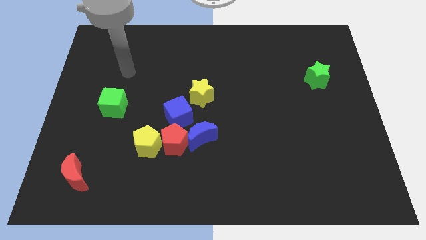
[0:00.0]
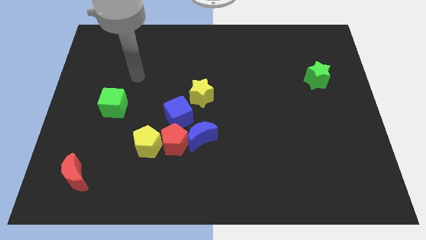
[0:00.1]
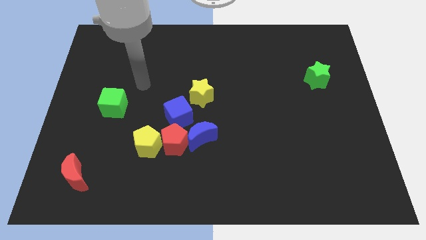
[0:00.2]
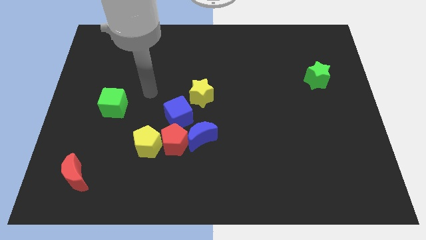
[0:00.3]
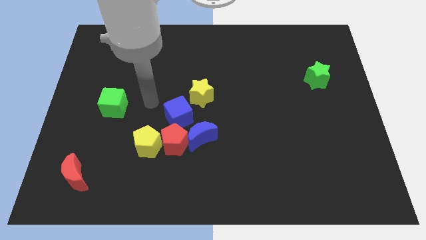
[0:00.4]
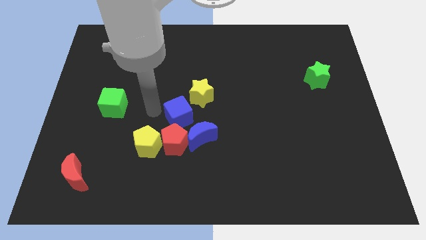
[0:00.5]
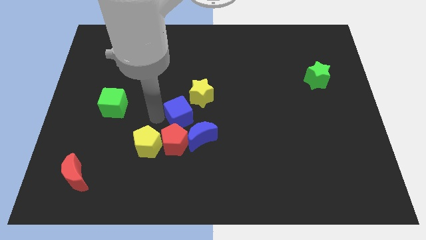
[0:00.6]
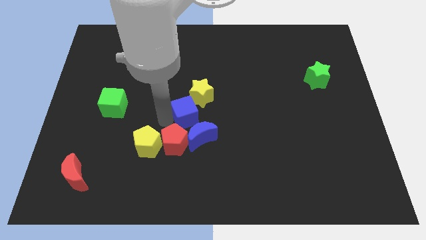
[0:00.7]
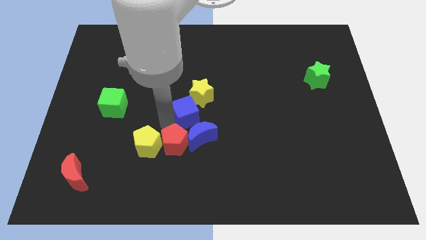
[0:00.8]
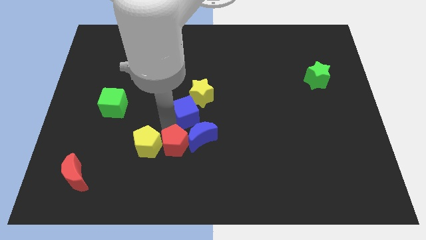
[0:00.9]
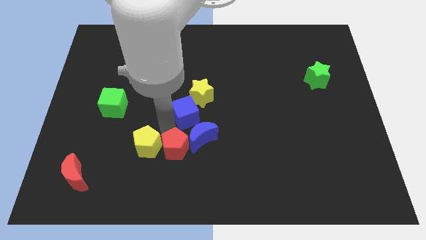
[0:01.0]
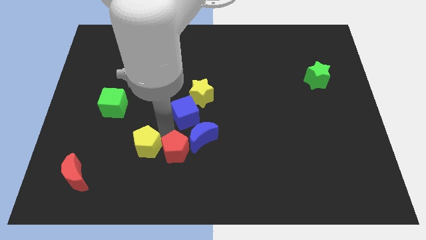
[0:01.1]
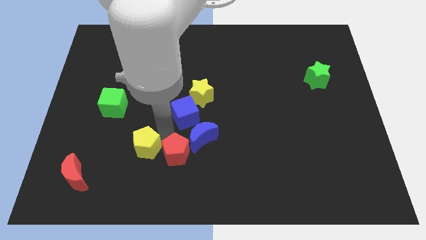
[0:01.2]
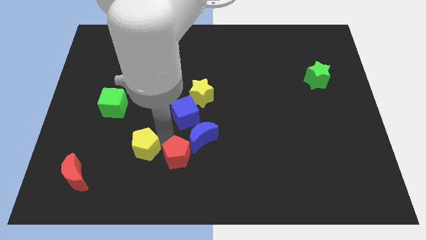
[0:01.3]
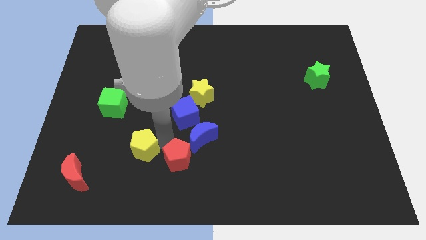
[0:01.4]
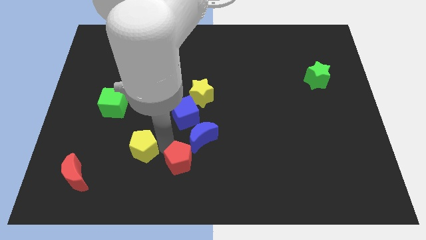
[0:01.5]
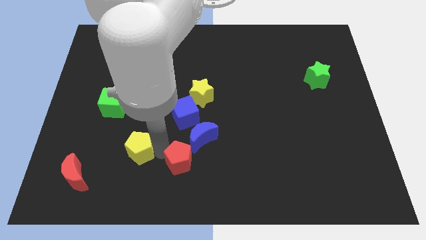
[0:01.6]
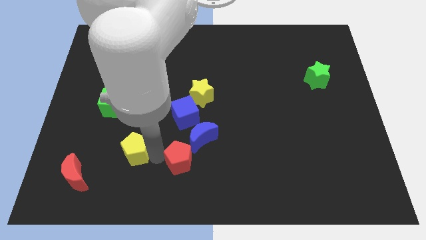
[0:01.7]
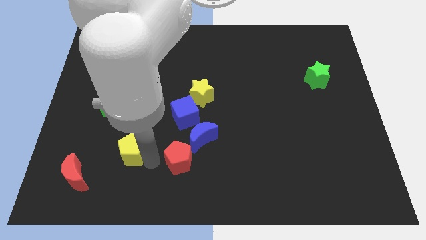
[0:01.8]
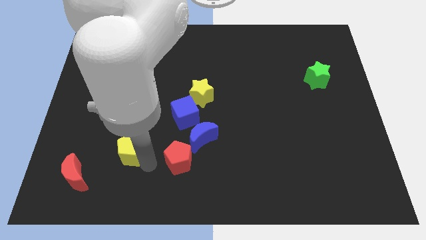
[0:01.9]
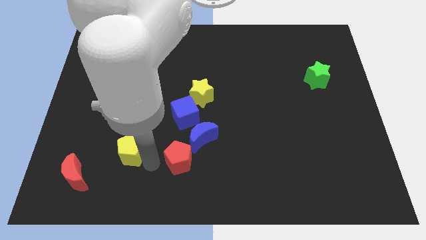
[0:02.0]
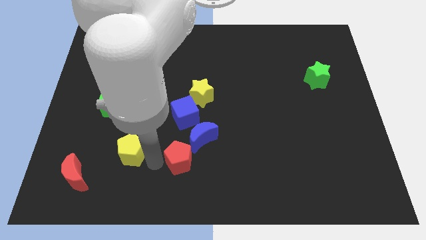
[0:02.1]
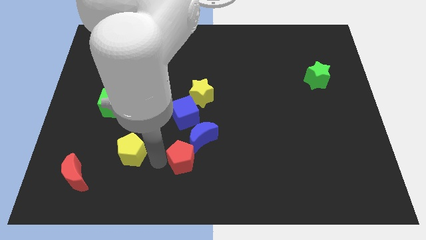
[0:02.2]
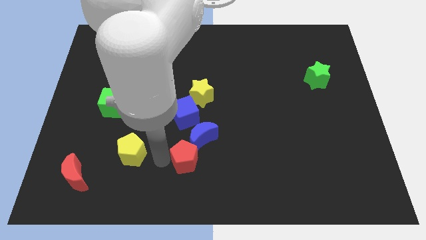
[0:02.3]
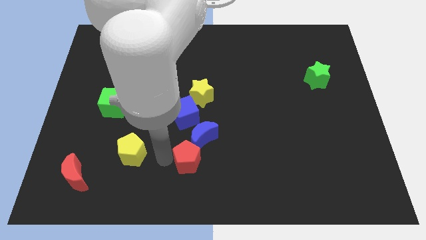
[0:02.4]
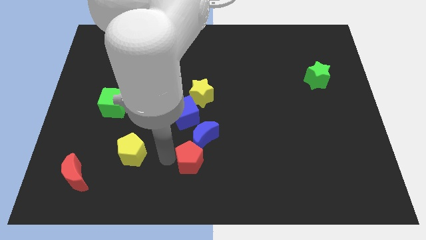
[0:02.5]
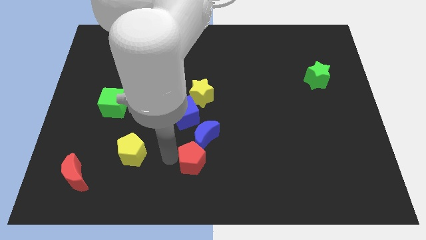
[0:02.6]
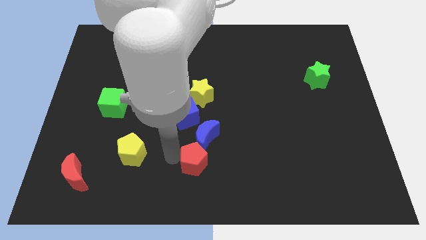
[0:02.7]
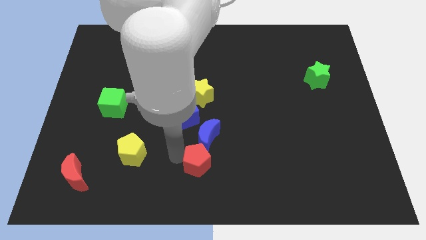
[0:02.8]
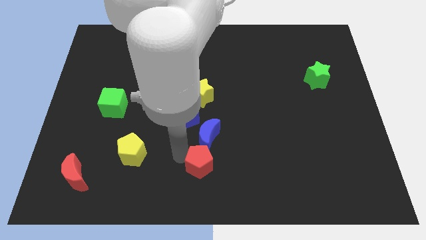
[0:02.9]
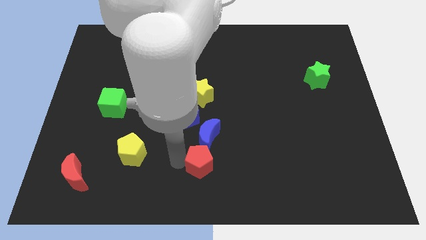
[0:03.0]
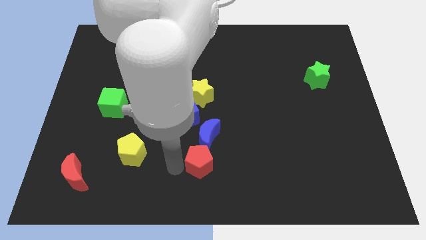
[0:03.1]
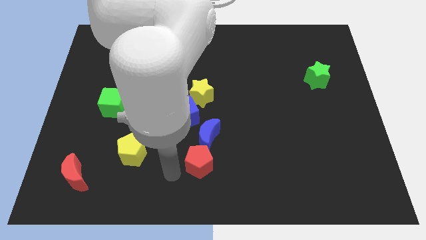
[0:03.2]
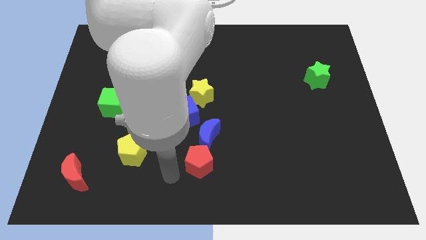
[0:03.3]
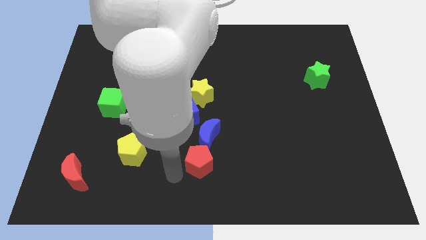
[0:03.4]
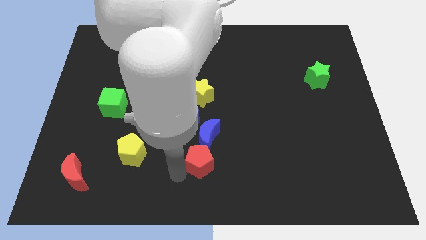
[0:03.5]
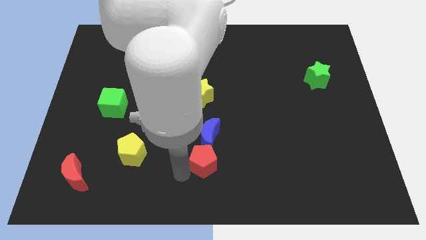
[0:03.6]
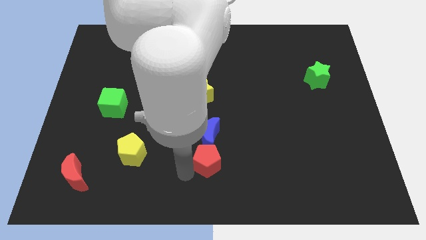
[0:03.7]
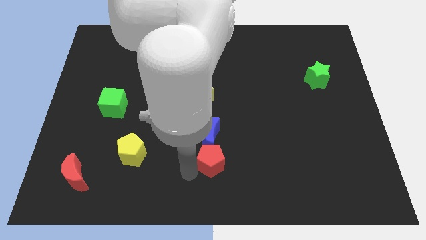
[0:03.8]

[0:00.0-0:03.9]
slightly push the red pentagon to the right

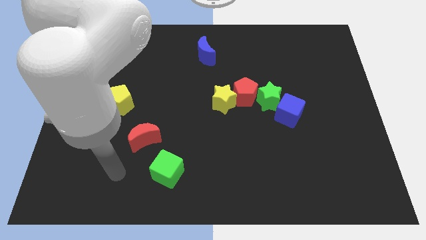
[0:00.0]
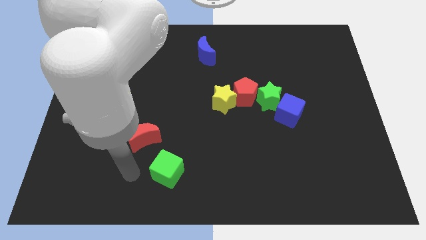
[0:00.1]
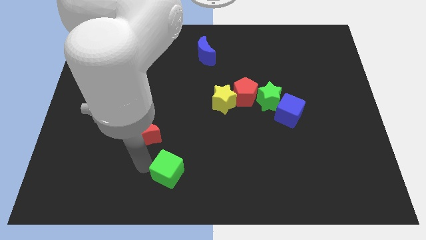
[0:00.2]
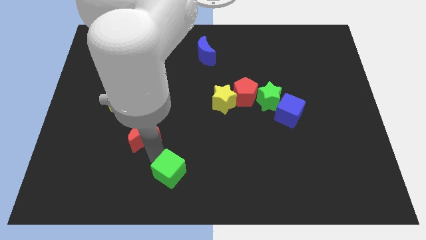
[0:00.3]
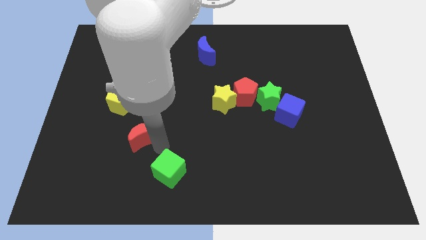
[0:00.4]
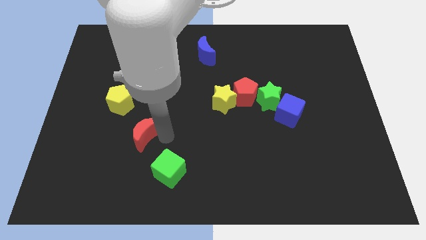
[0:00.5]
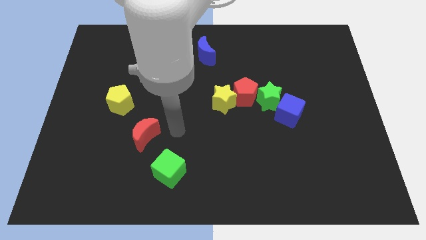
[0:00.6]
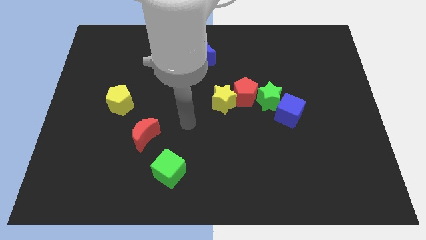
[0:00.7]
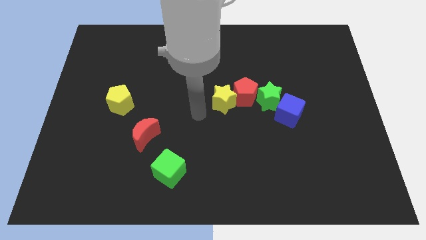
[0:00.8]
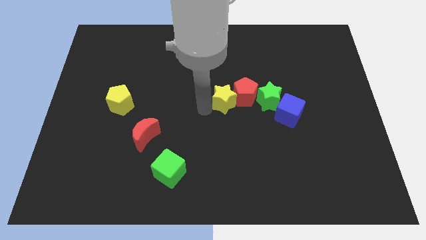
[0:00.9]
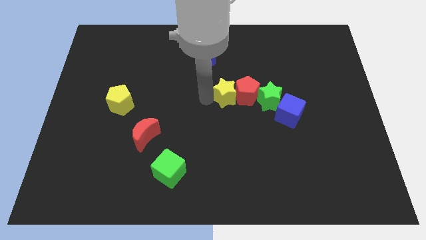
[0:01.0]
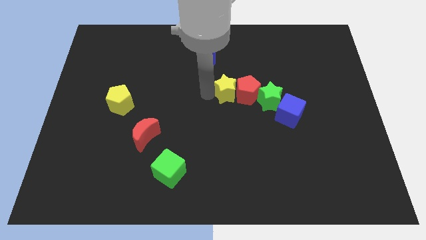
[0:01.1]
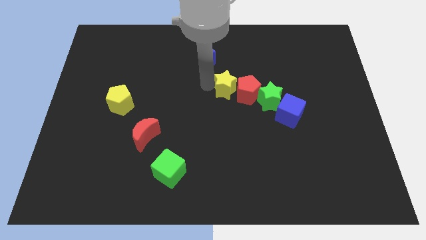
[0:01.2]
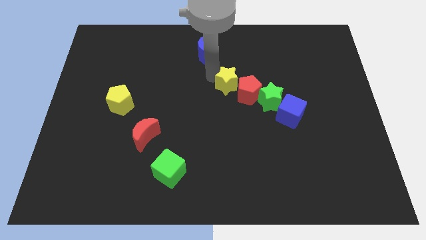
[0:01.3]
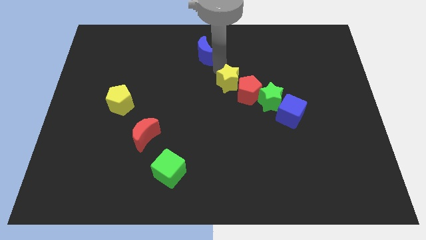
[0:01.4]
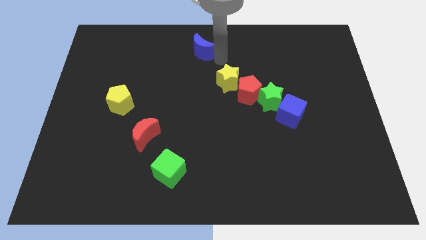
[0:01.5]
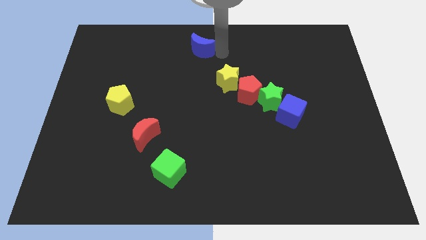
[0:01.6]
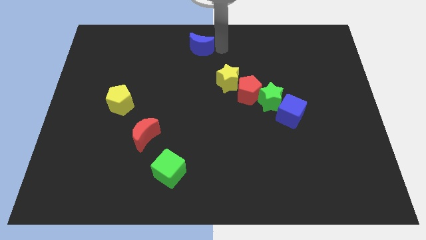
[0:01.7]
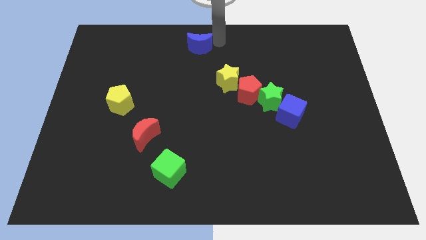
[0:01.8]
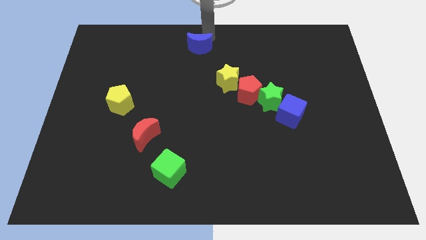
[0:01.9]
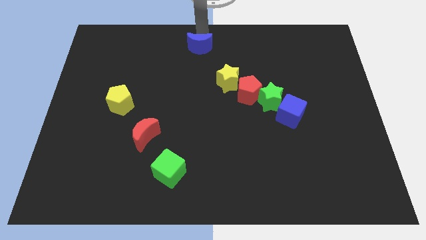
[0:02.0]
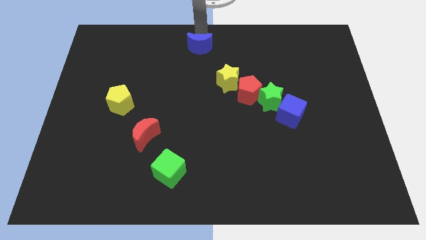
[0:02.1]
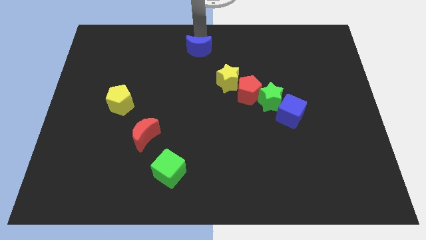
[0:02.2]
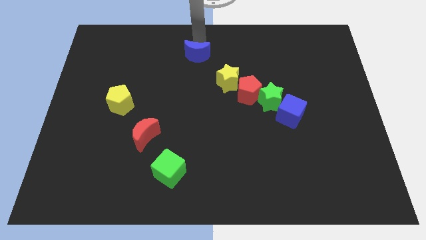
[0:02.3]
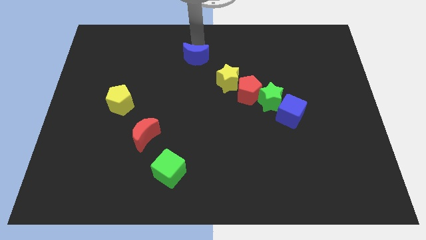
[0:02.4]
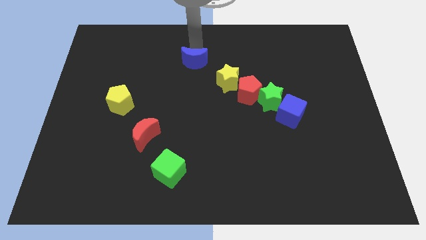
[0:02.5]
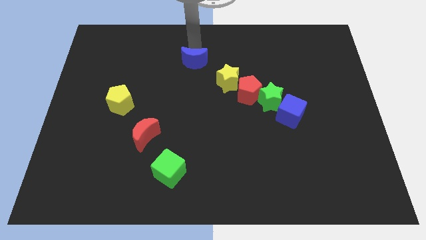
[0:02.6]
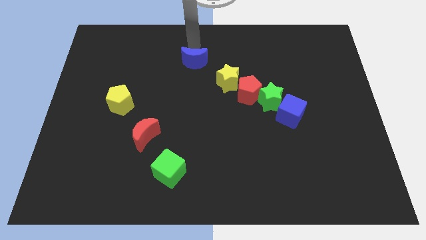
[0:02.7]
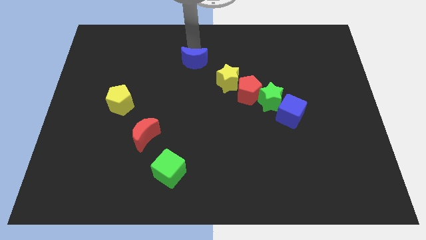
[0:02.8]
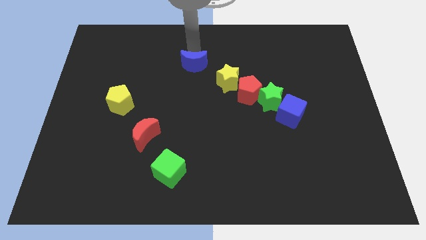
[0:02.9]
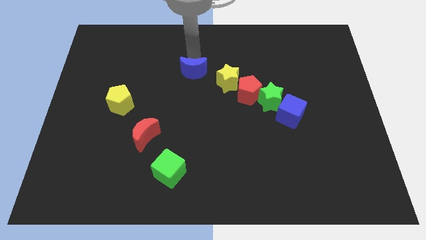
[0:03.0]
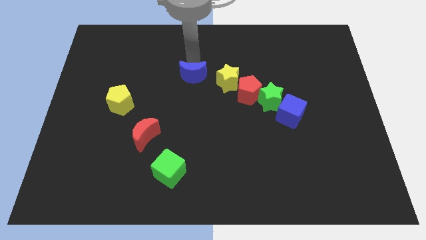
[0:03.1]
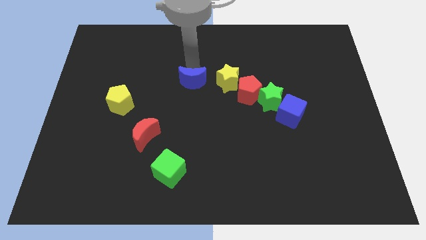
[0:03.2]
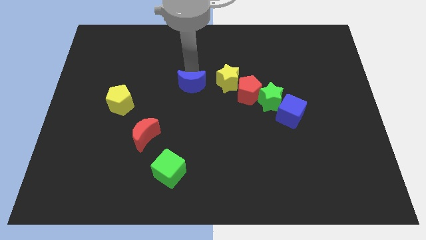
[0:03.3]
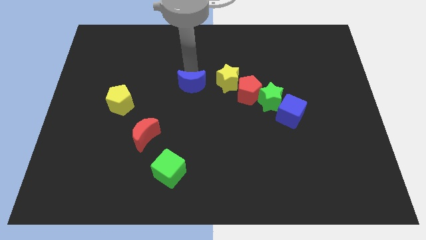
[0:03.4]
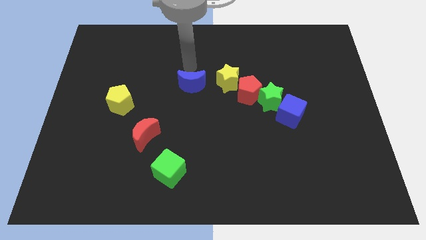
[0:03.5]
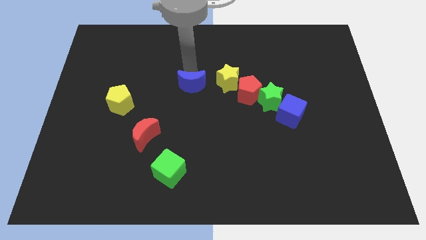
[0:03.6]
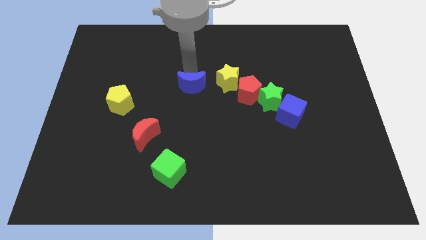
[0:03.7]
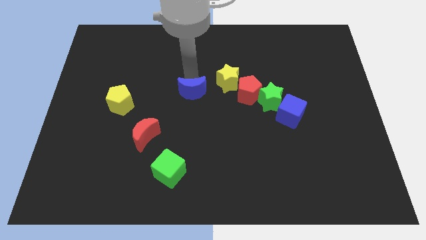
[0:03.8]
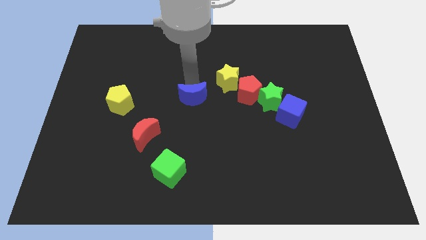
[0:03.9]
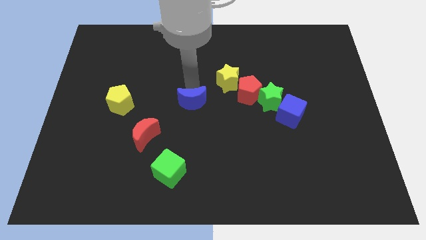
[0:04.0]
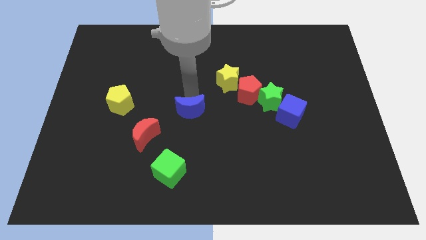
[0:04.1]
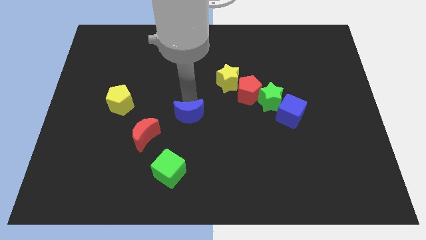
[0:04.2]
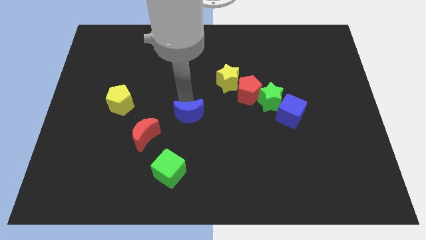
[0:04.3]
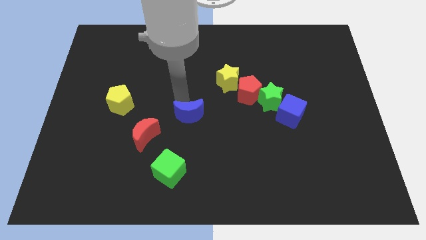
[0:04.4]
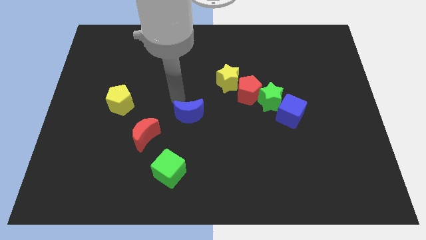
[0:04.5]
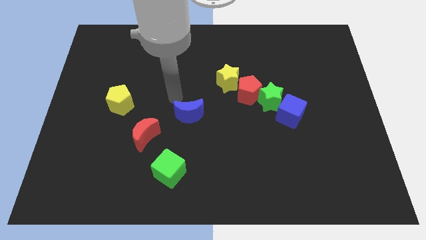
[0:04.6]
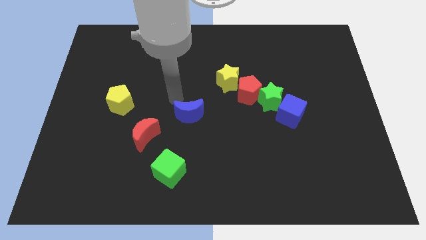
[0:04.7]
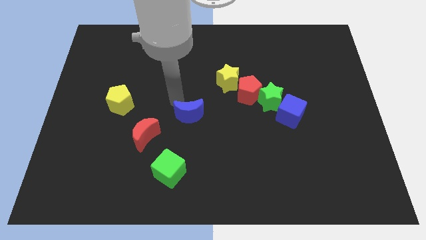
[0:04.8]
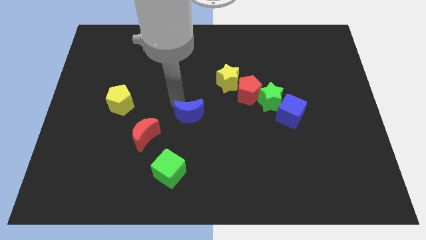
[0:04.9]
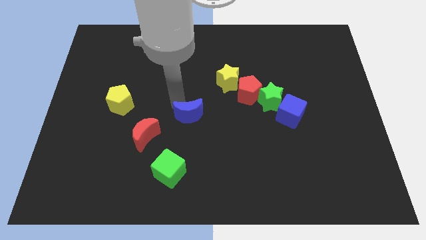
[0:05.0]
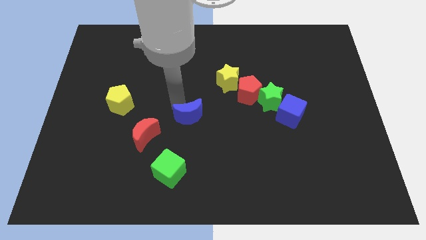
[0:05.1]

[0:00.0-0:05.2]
move the blue moon downwards
